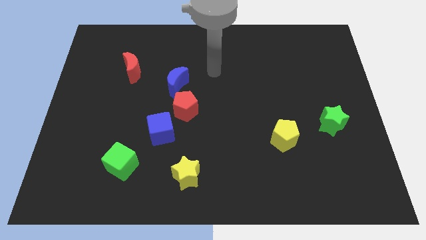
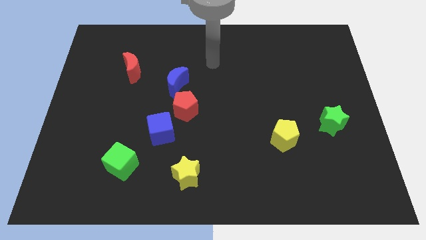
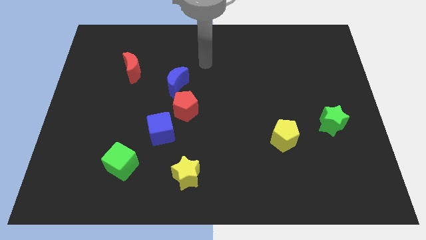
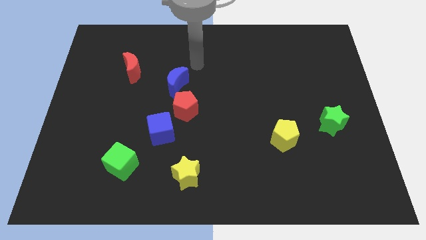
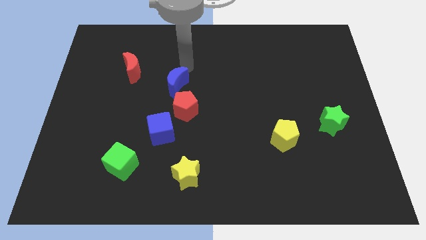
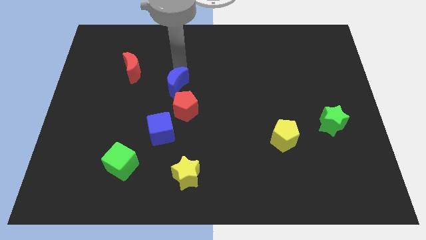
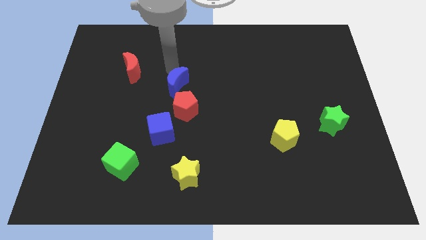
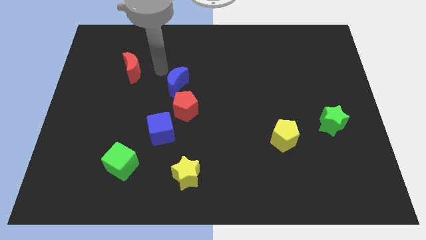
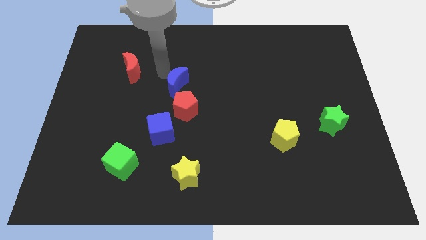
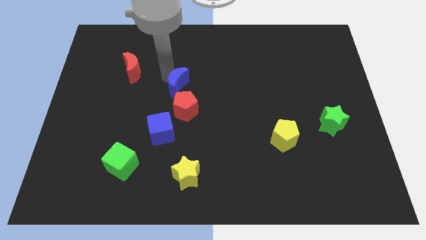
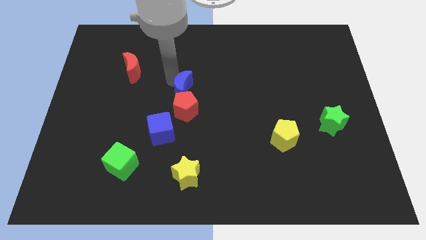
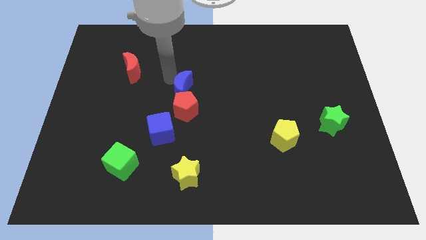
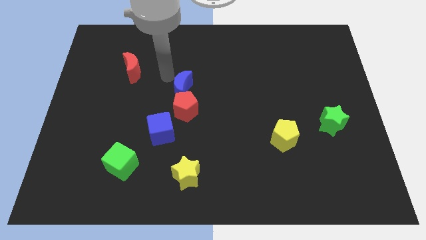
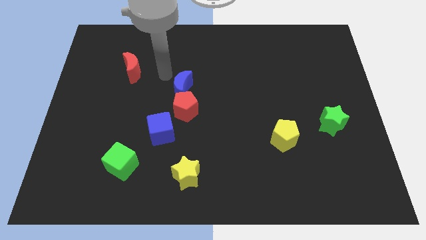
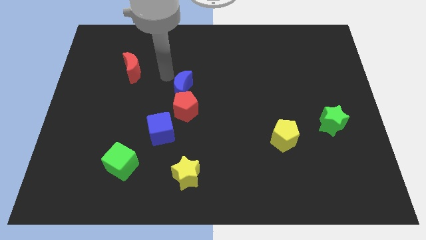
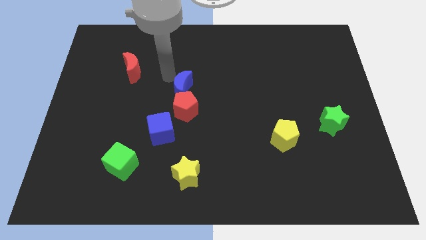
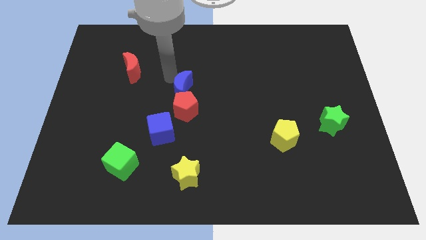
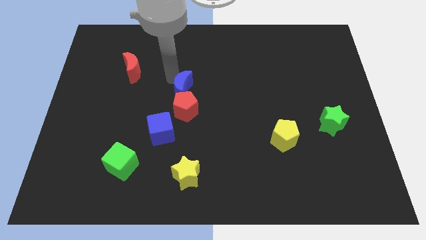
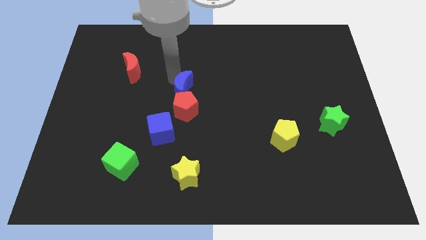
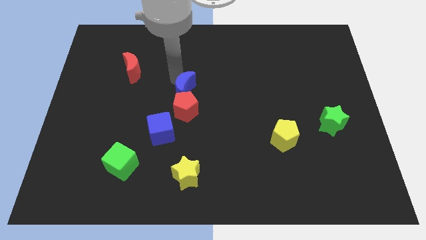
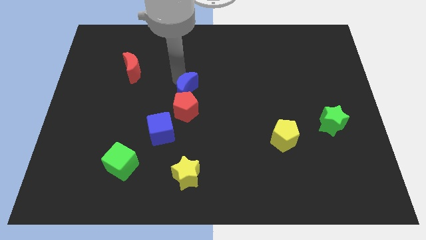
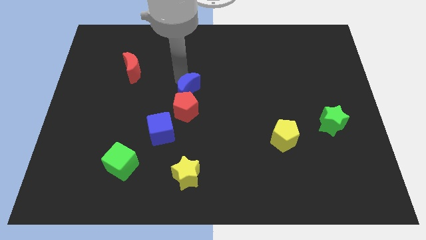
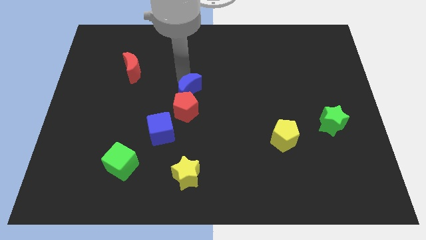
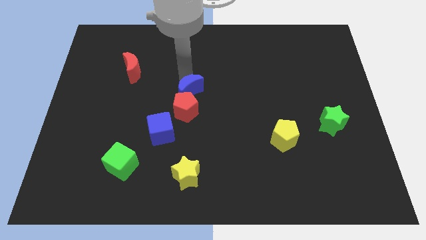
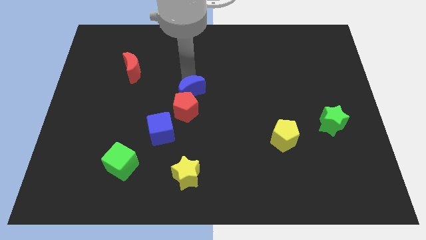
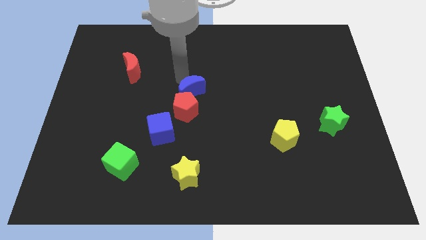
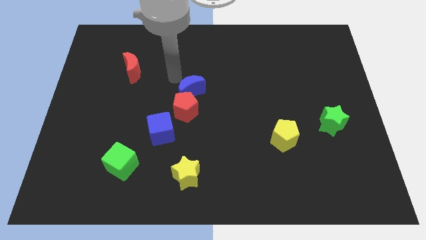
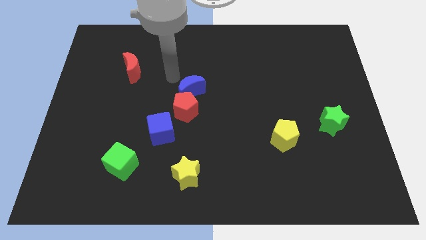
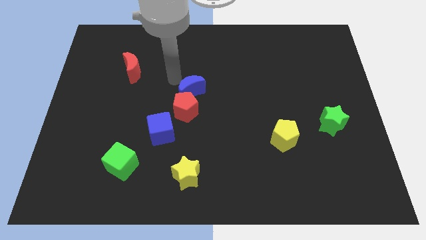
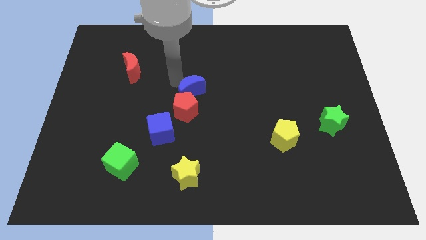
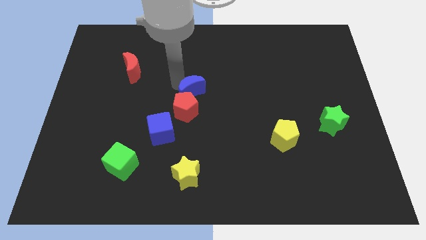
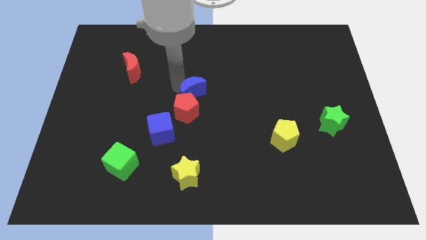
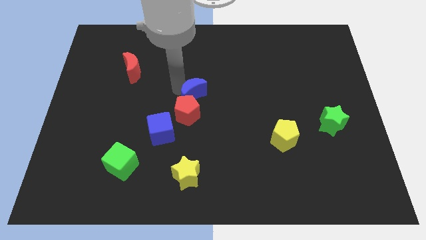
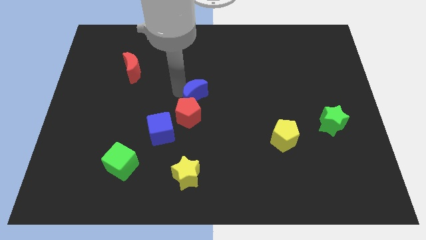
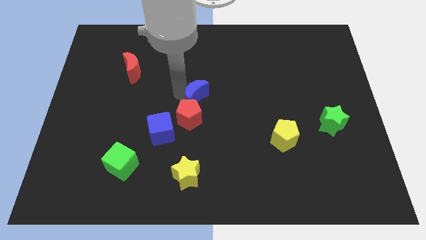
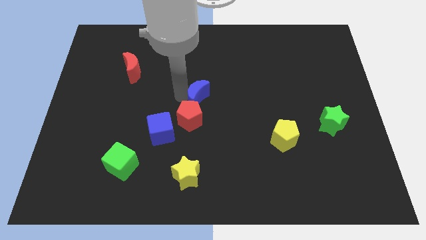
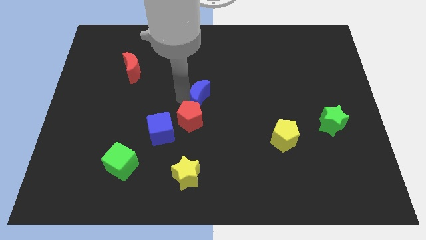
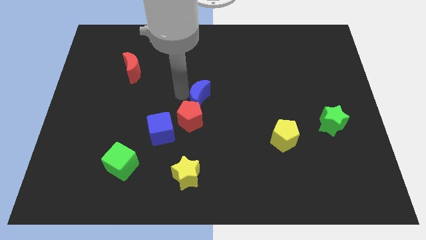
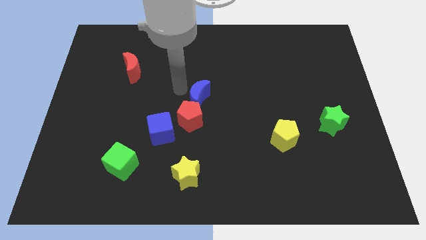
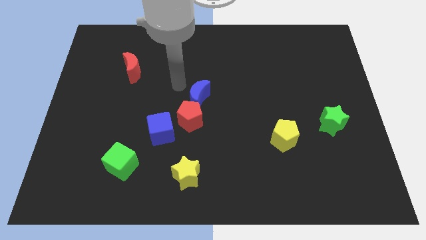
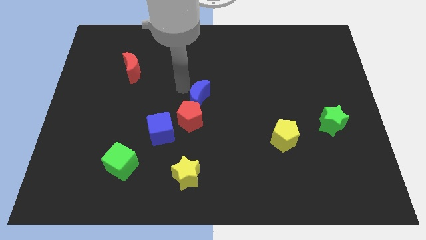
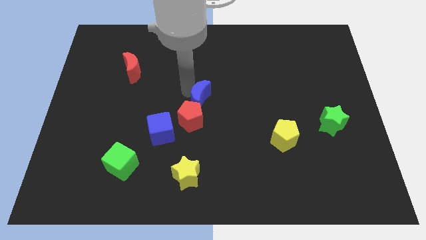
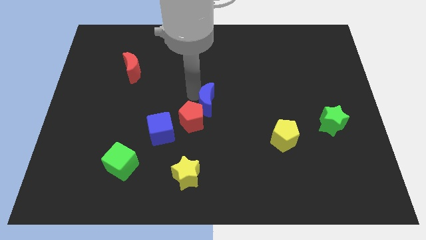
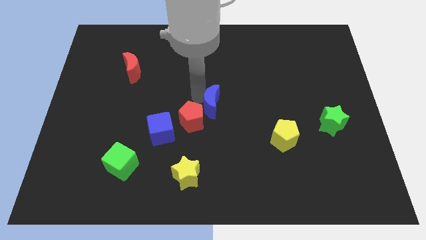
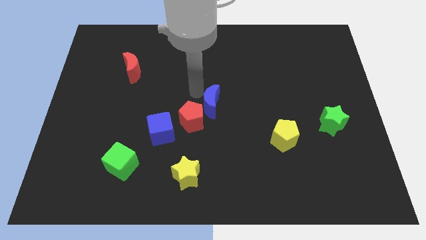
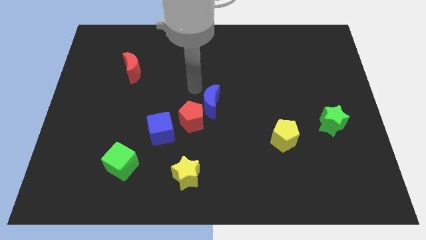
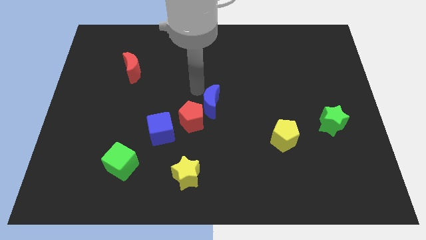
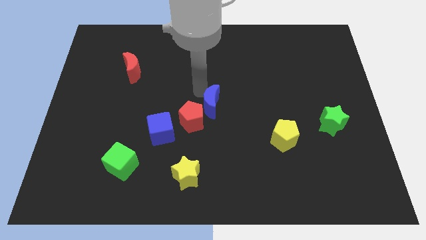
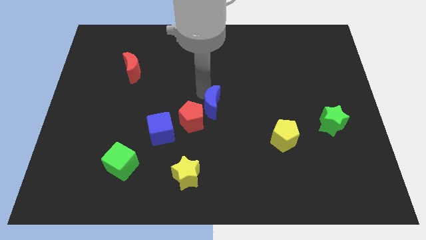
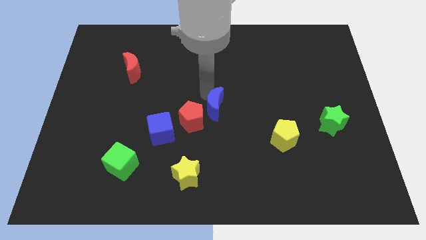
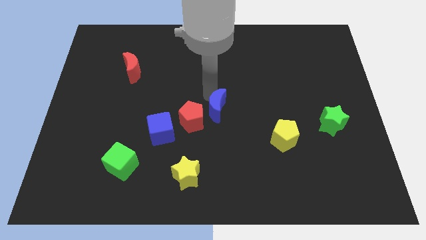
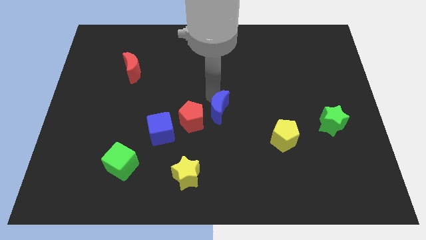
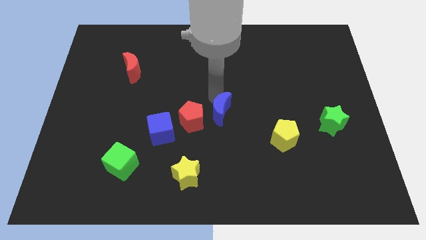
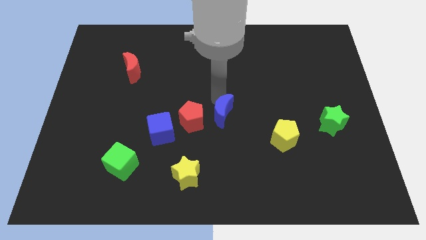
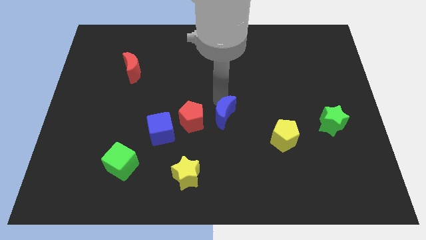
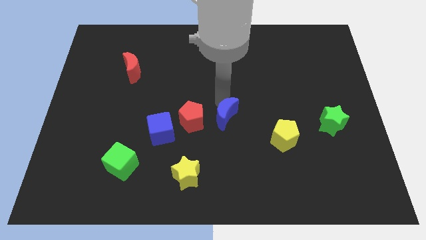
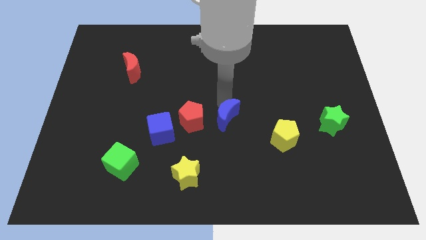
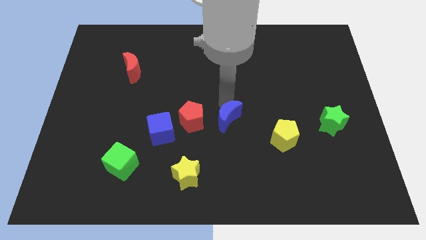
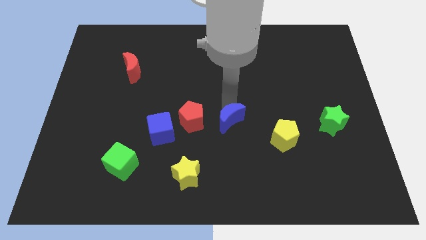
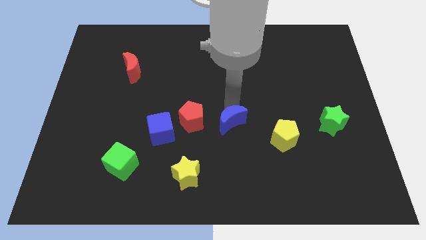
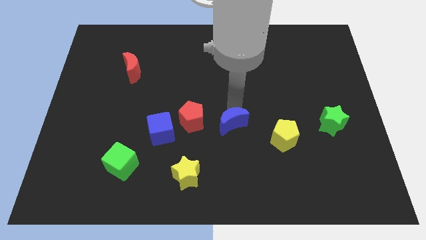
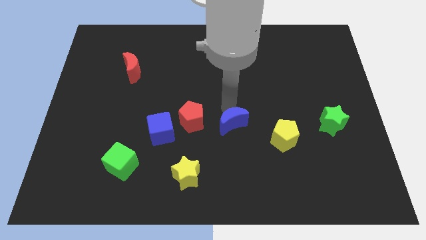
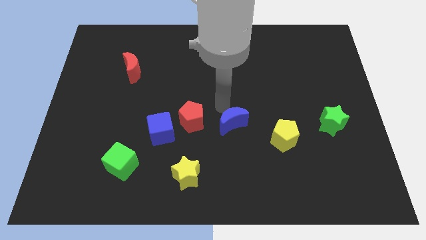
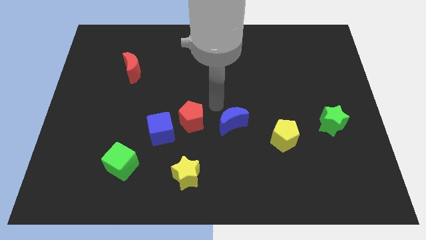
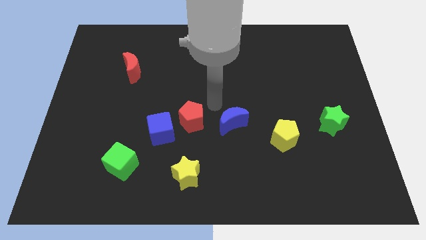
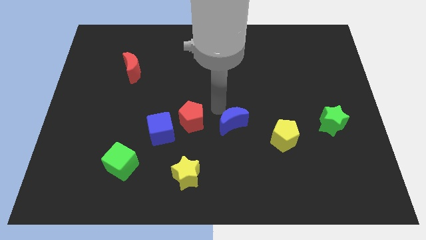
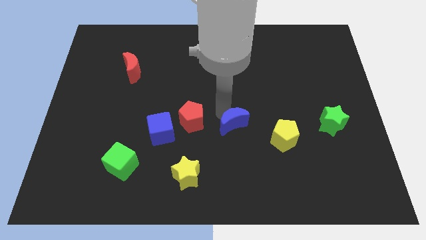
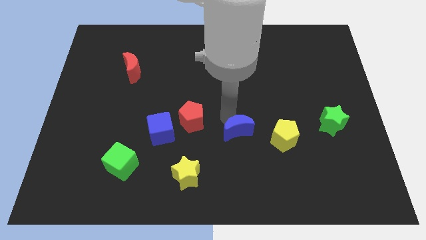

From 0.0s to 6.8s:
move the blue moon down and right

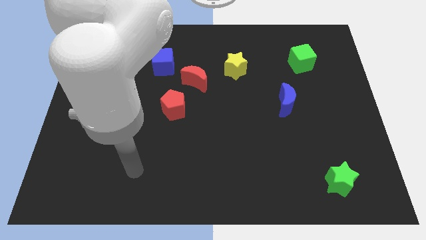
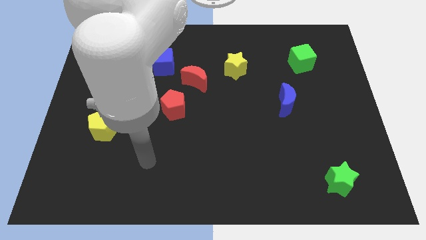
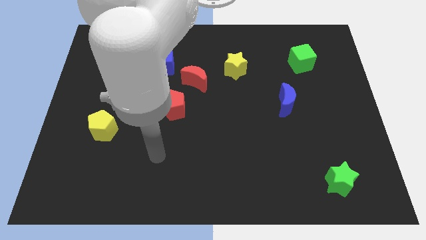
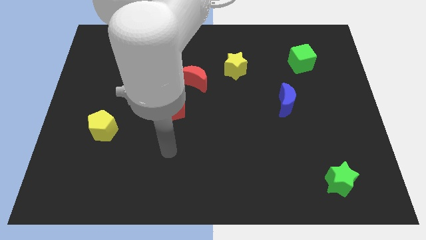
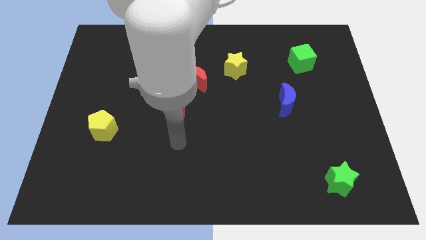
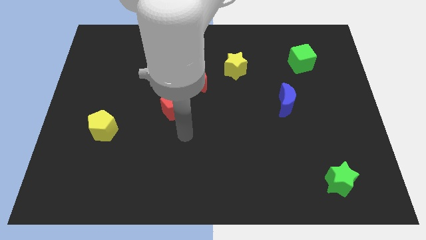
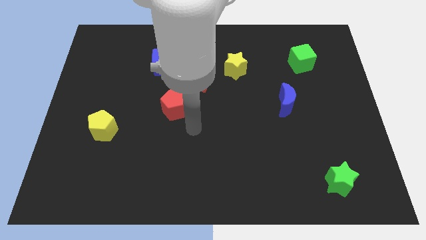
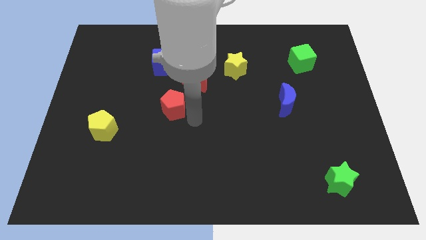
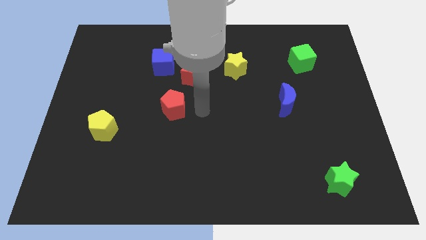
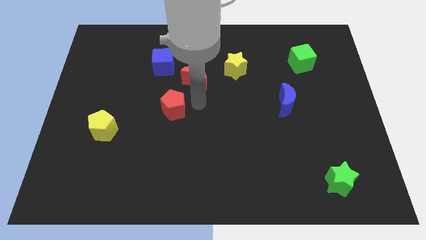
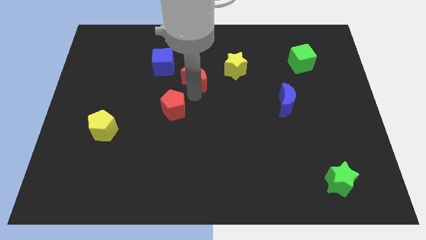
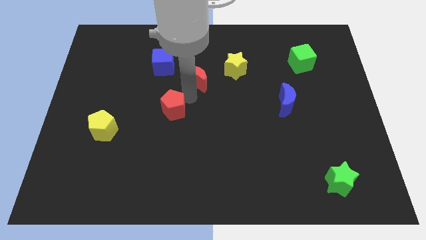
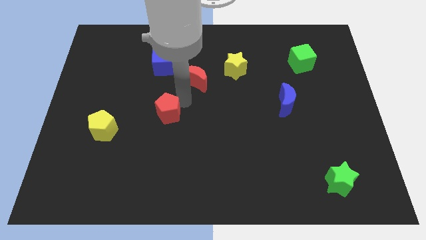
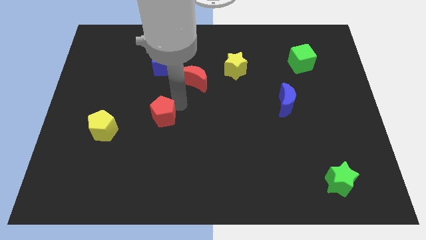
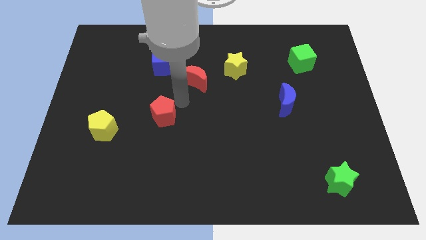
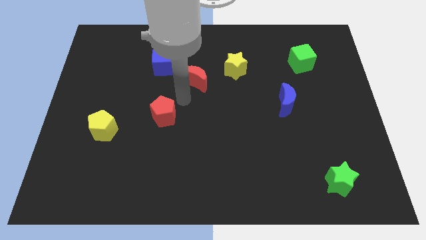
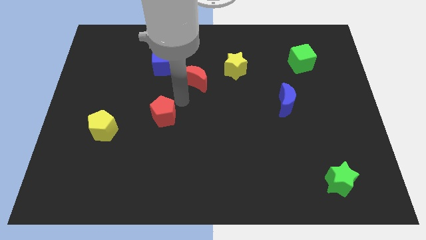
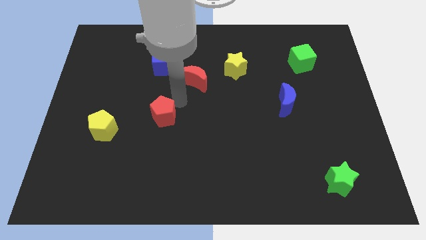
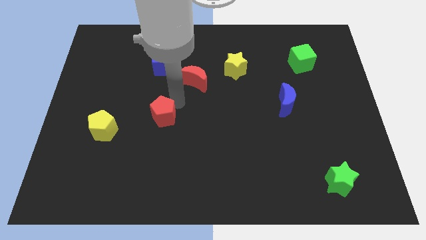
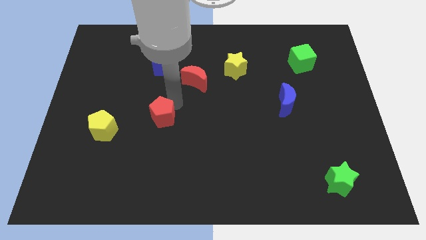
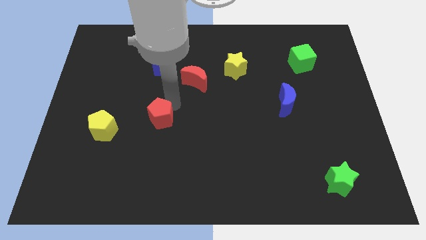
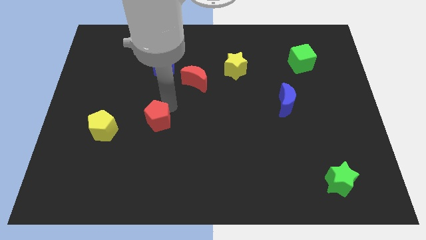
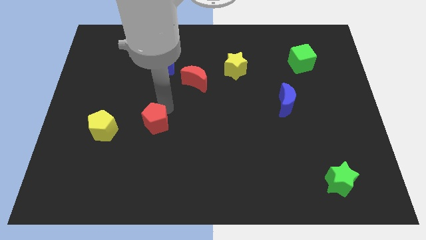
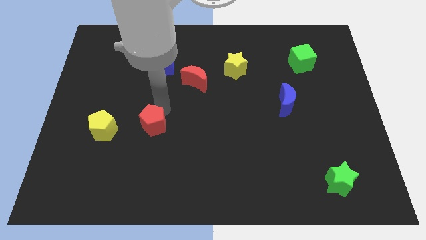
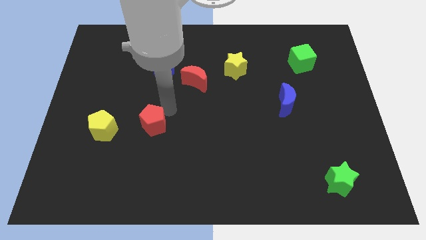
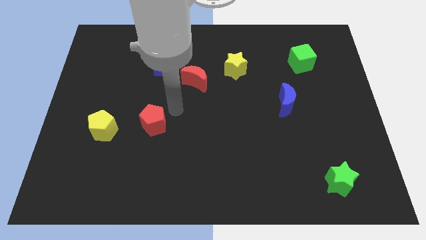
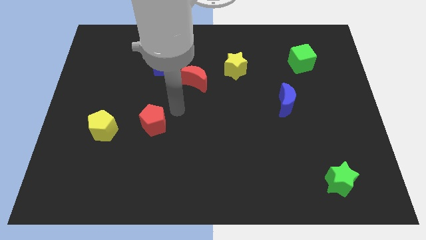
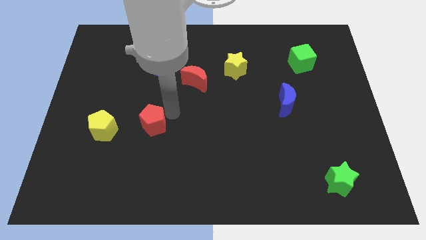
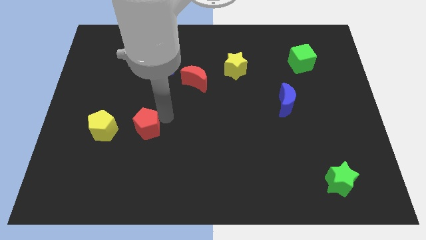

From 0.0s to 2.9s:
push the red pentagon a little downwards and left
